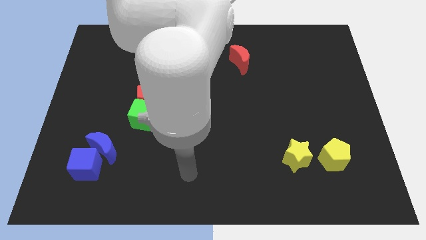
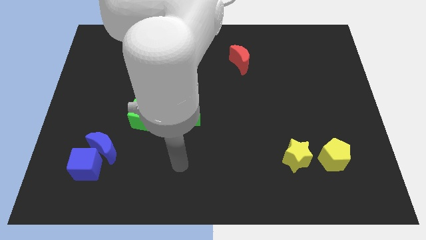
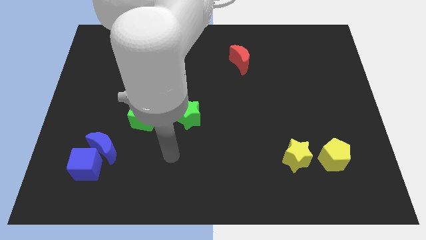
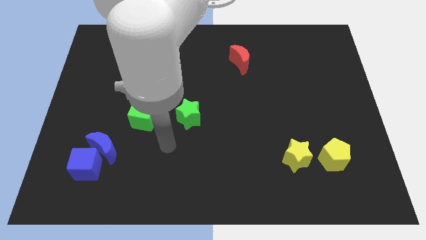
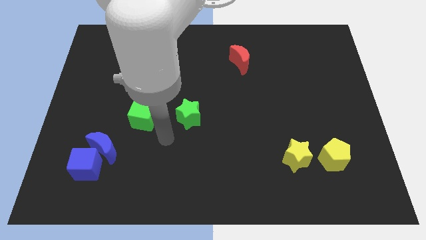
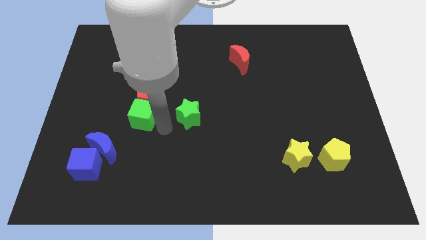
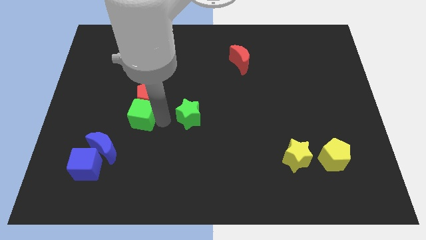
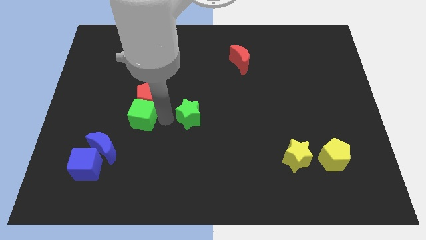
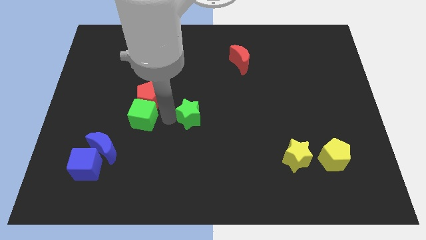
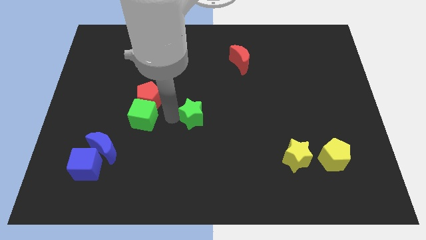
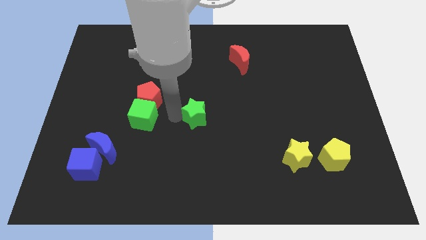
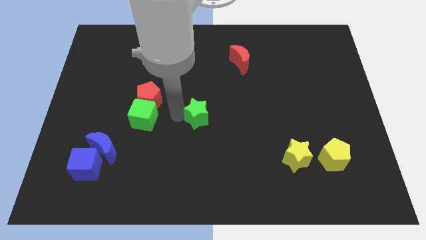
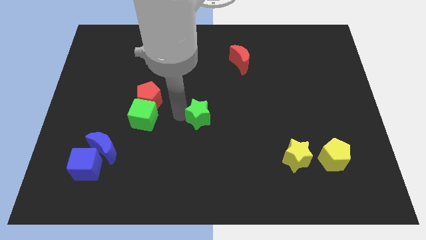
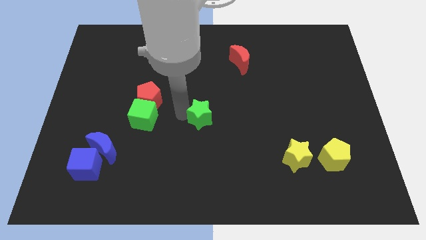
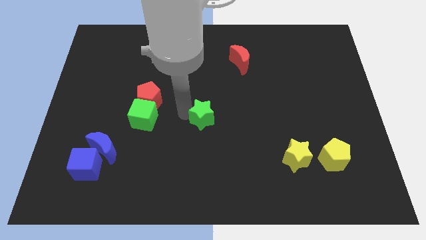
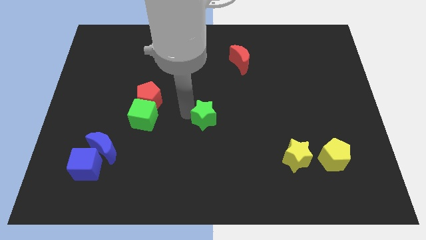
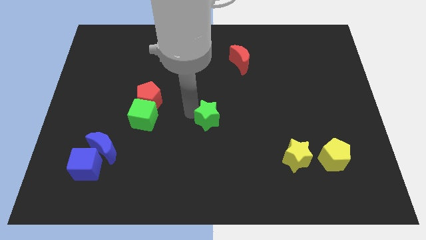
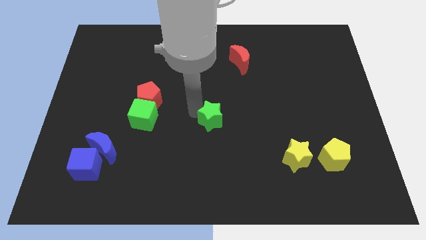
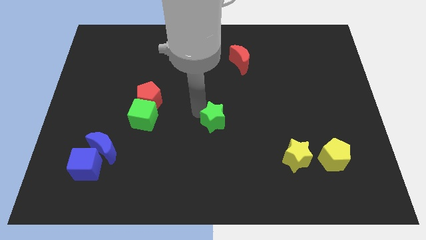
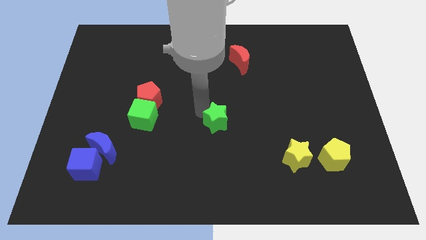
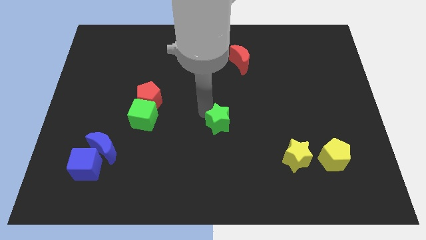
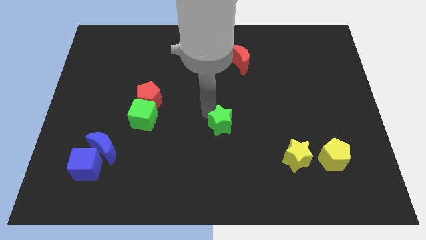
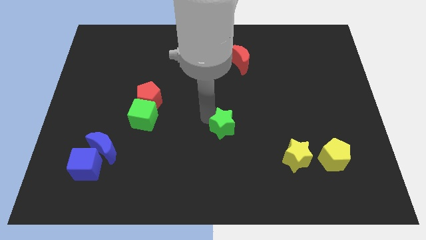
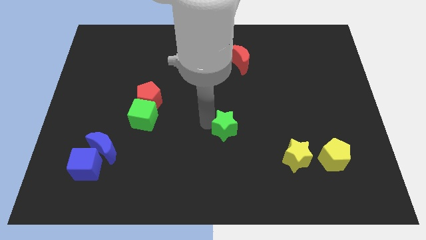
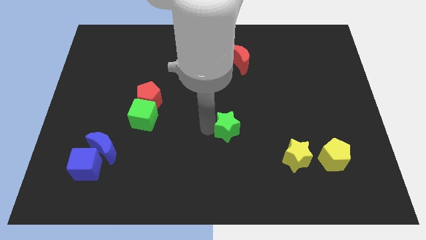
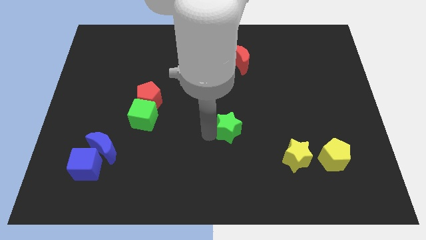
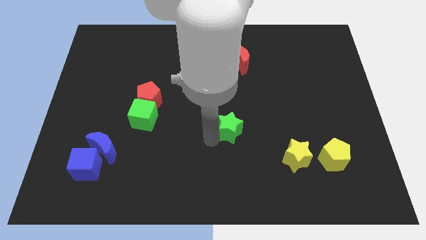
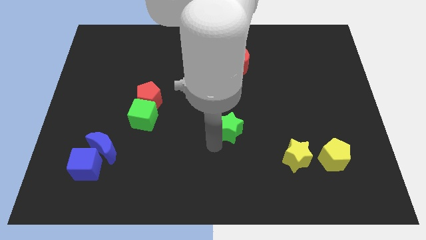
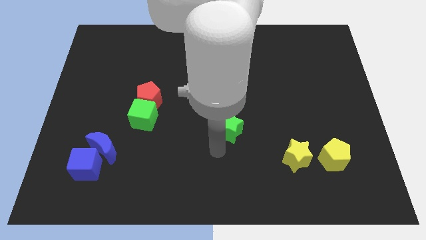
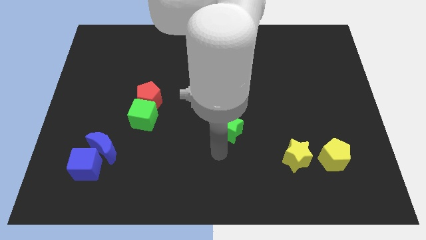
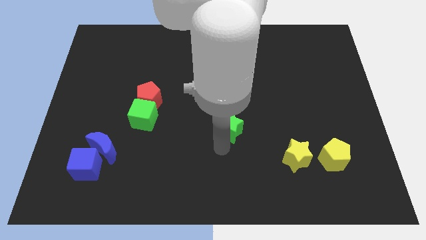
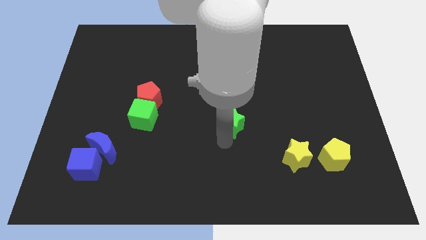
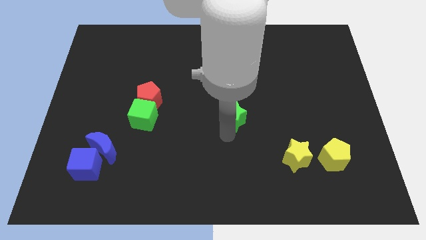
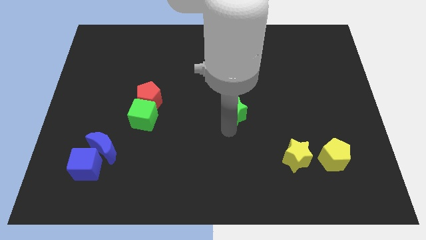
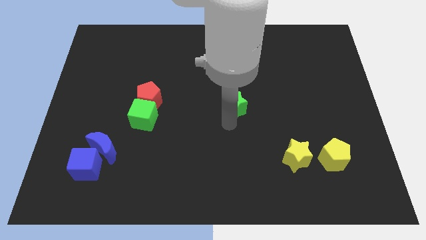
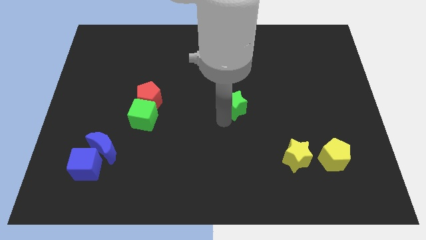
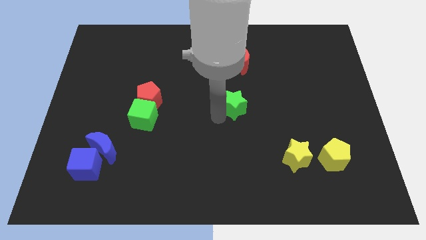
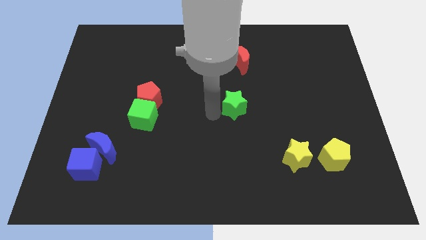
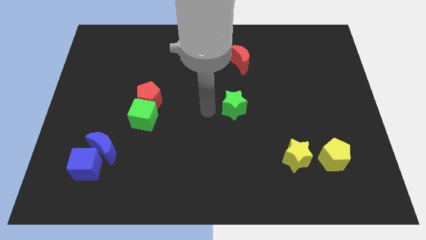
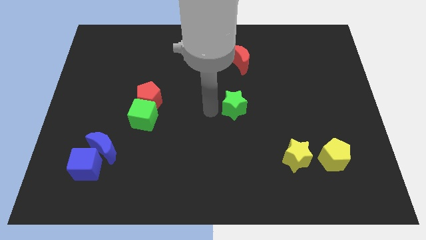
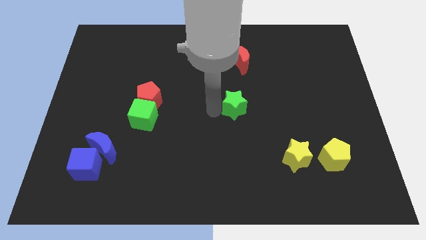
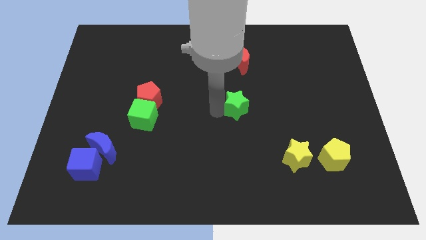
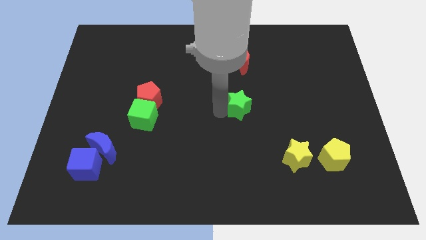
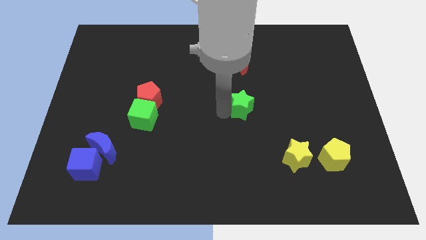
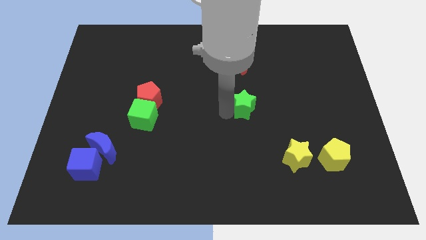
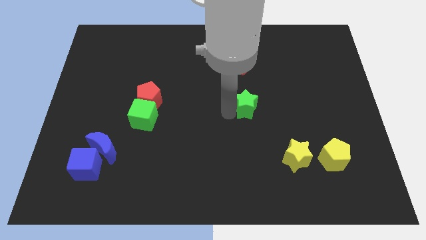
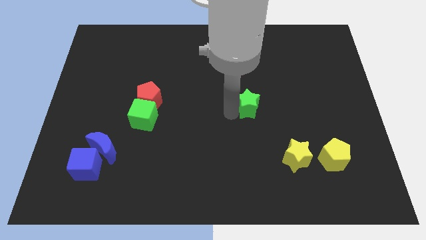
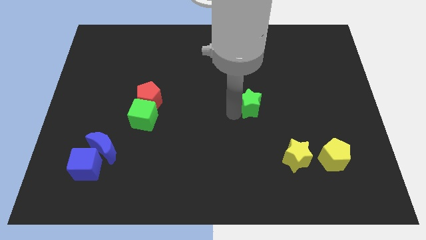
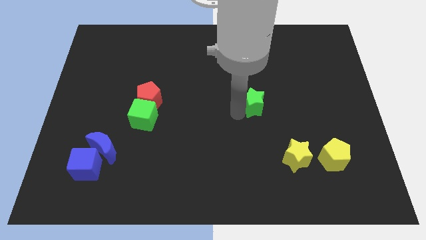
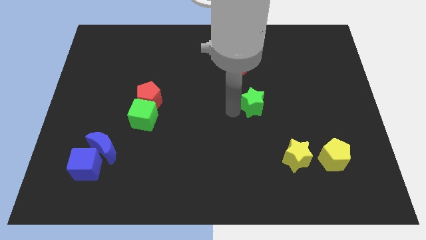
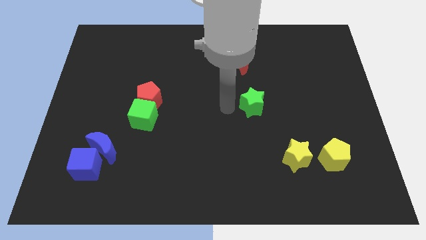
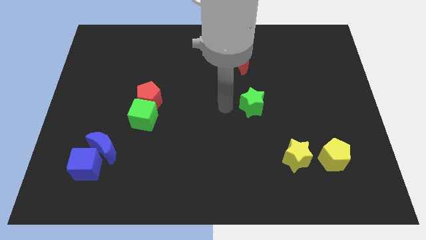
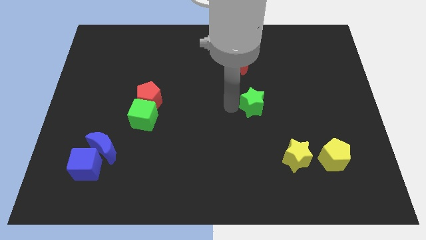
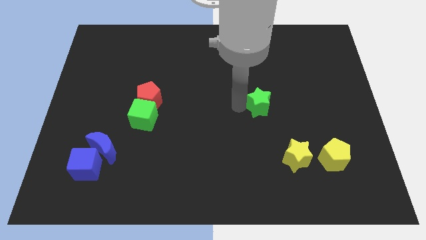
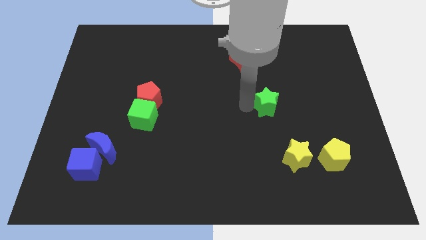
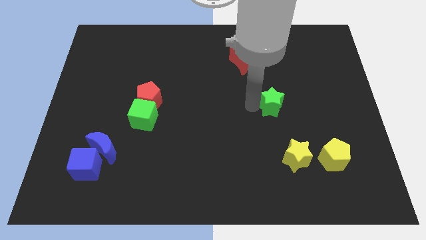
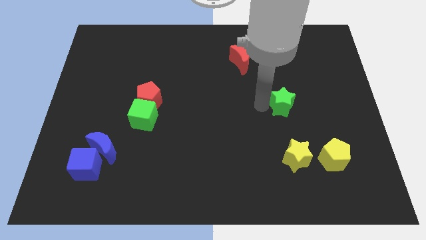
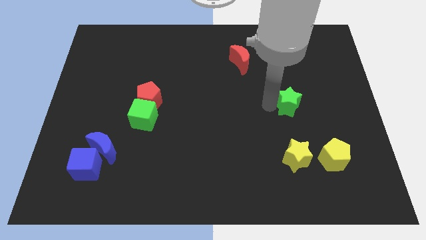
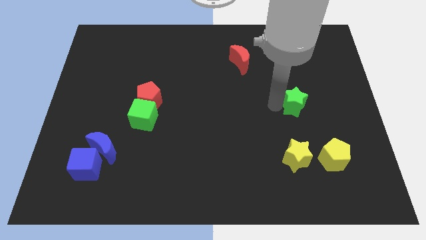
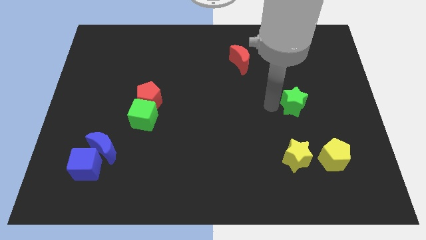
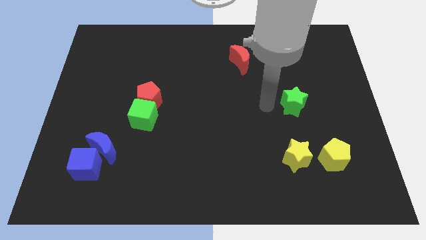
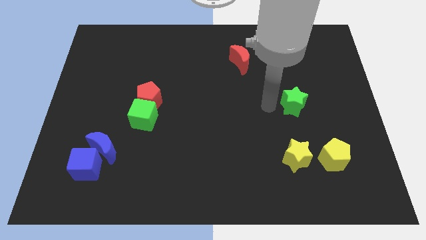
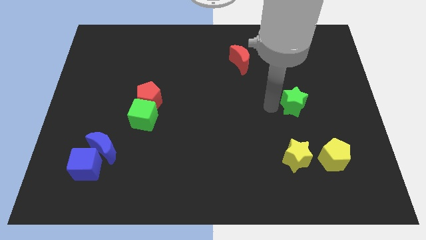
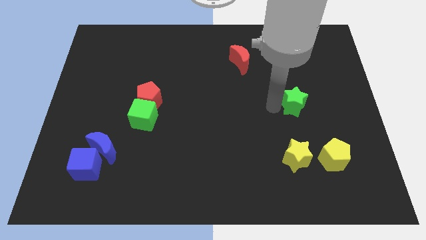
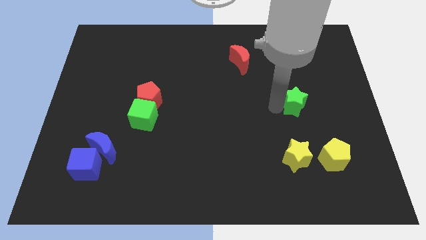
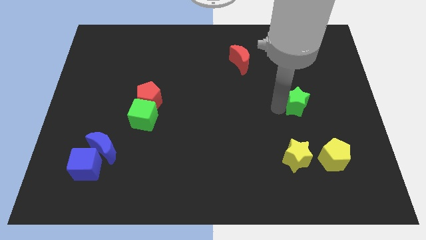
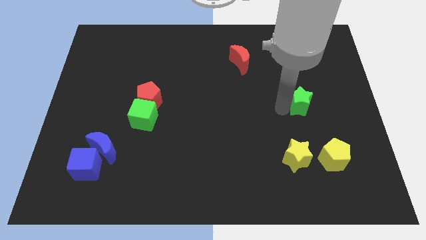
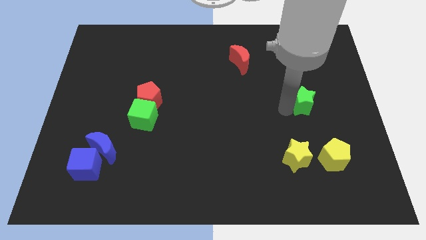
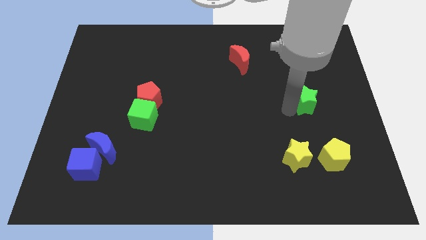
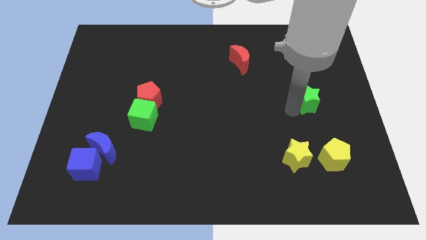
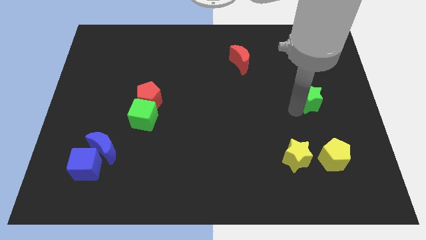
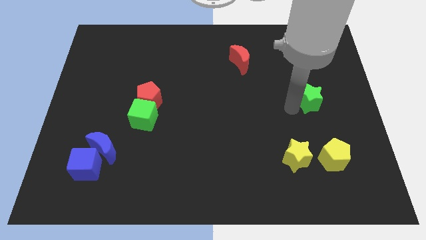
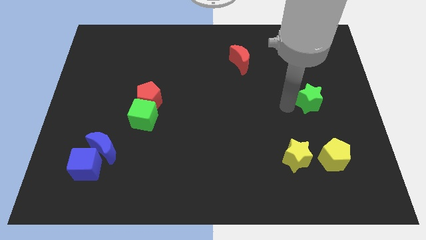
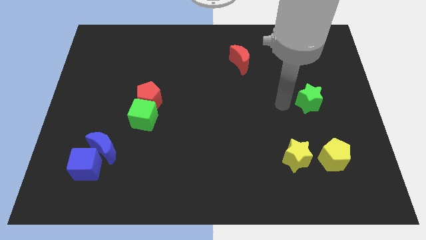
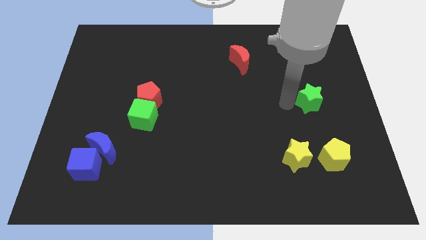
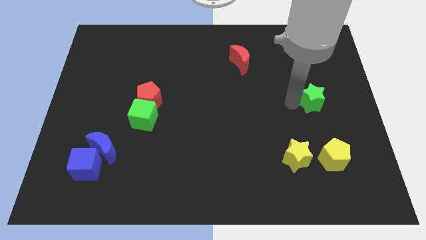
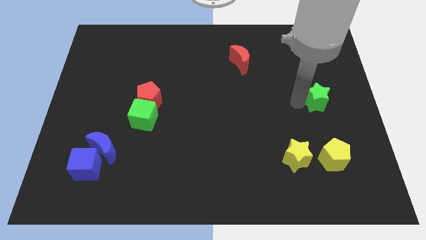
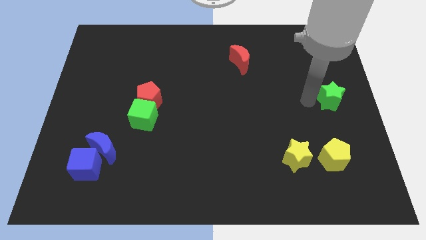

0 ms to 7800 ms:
move the green star to the center right
